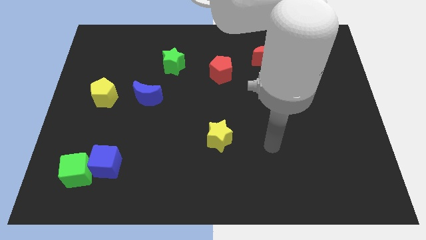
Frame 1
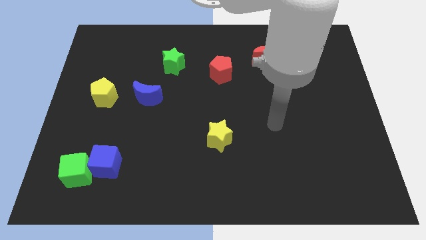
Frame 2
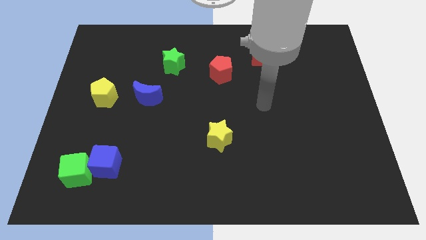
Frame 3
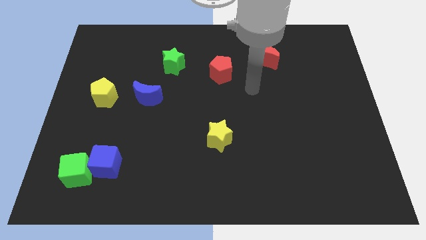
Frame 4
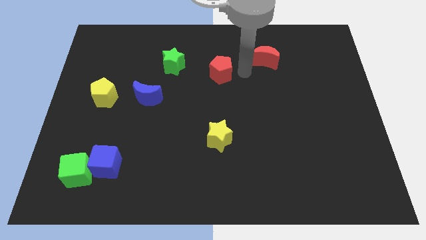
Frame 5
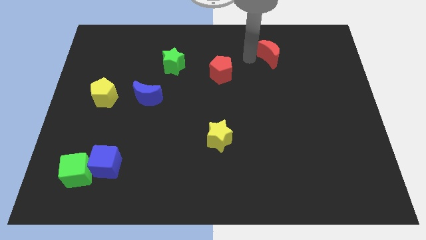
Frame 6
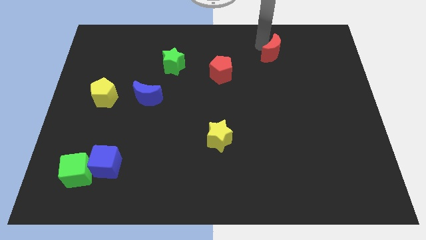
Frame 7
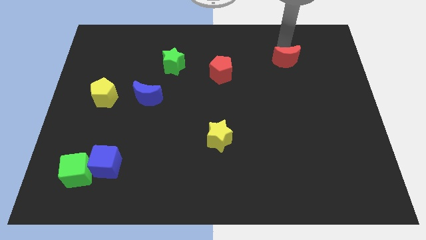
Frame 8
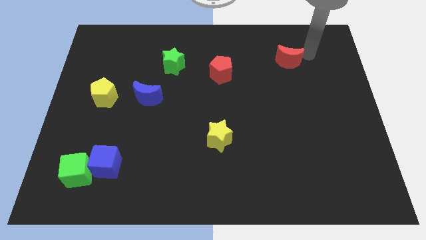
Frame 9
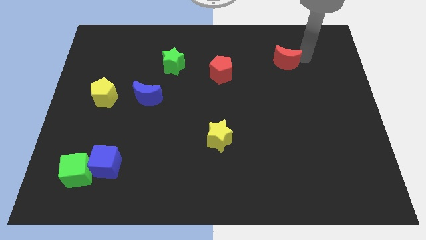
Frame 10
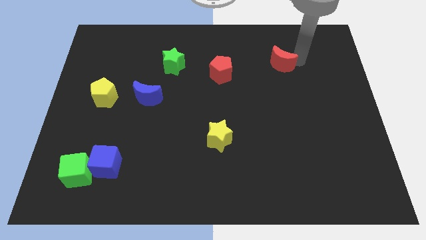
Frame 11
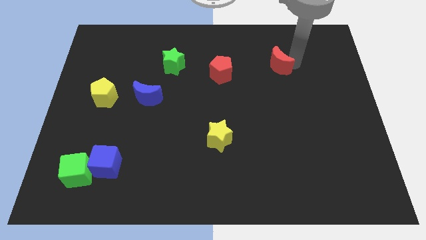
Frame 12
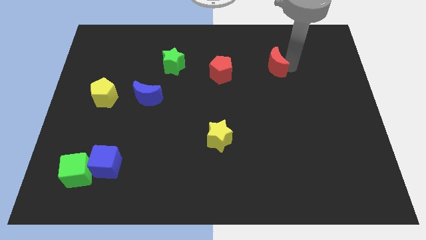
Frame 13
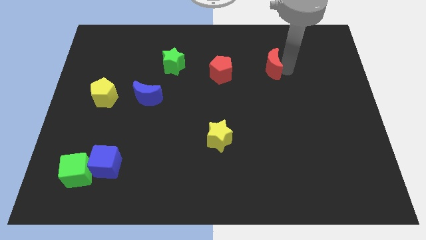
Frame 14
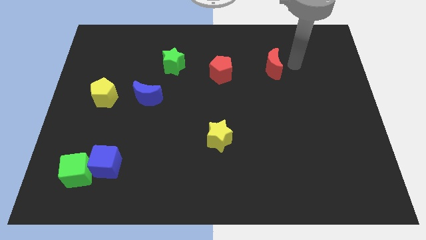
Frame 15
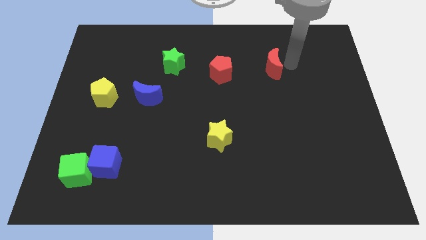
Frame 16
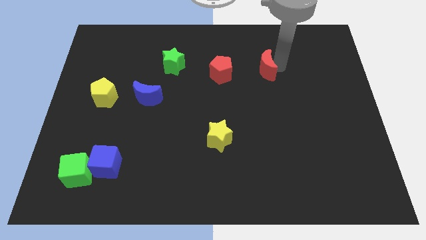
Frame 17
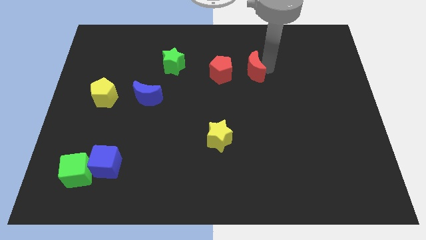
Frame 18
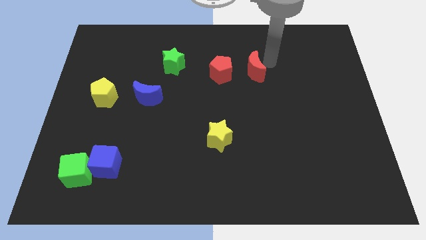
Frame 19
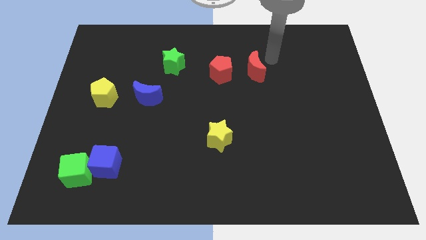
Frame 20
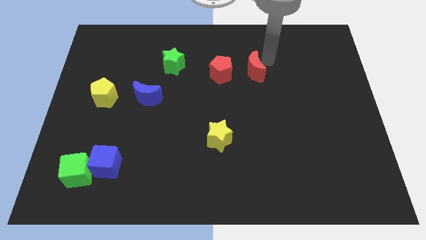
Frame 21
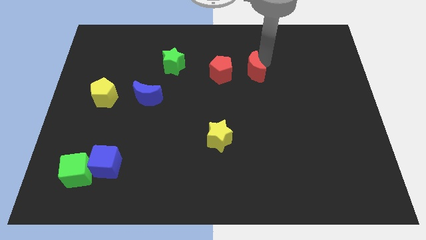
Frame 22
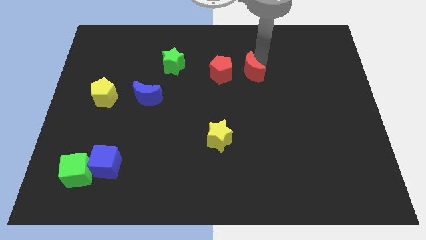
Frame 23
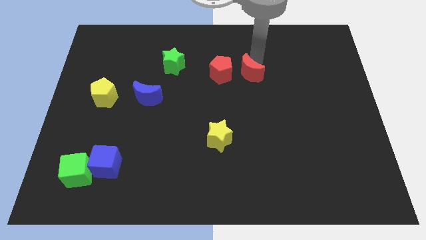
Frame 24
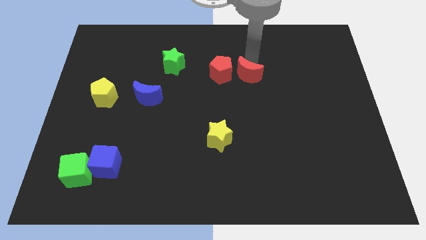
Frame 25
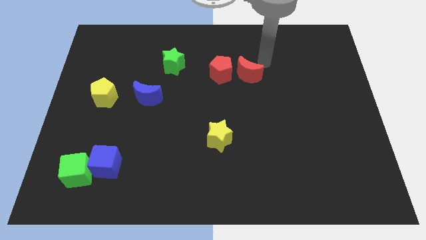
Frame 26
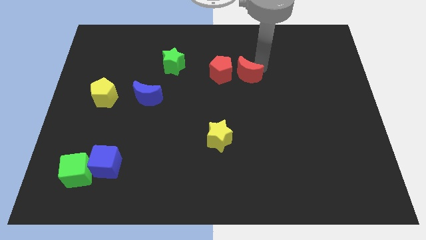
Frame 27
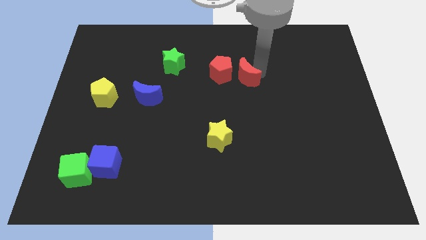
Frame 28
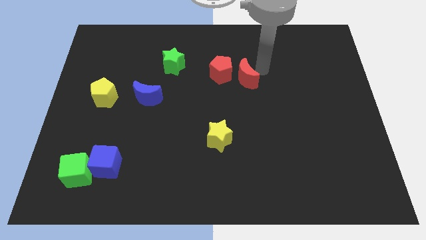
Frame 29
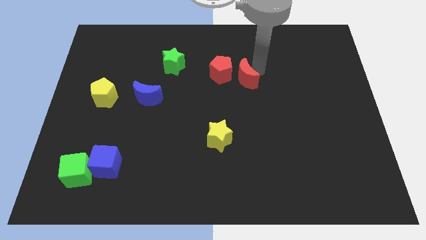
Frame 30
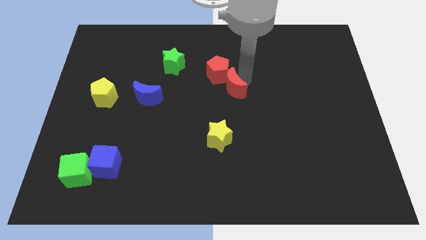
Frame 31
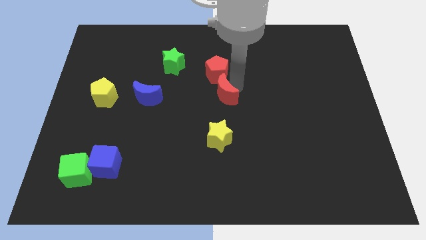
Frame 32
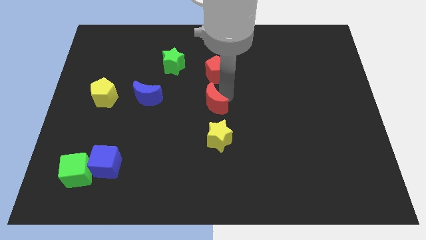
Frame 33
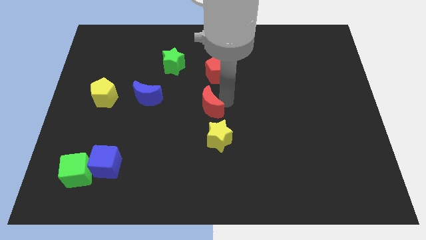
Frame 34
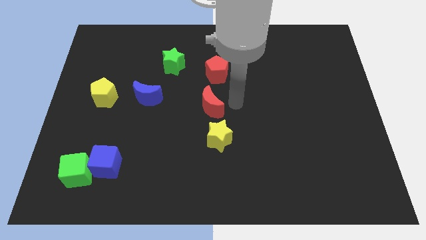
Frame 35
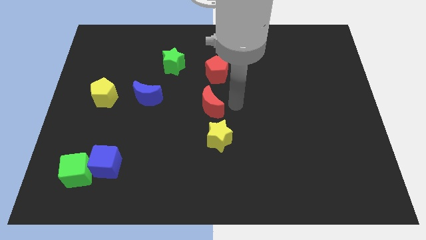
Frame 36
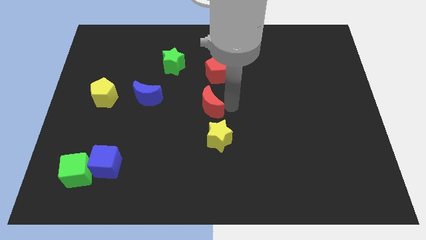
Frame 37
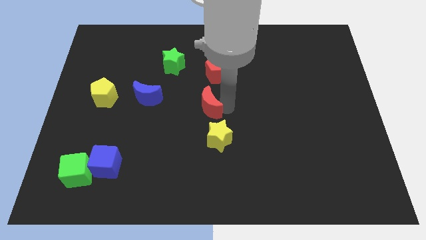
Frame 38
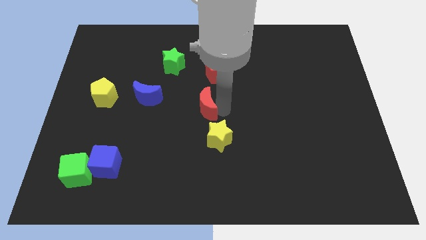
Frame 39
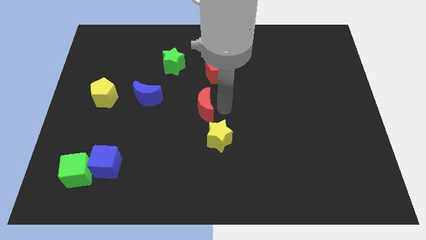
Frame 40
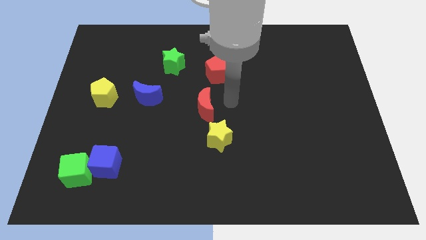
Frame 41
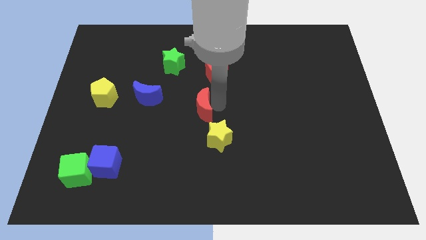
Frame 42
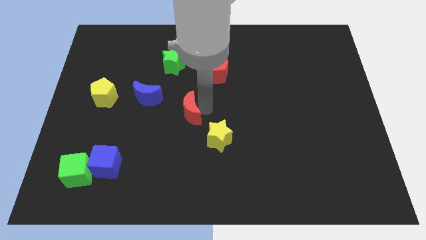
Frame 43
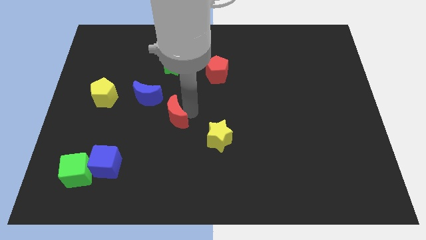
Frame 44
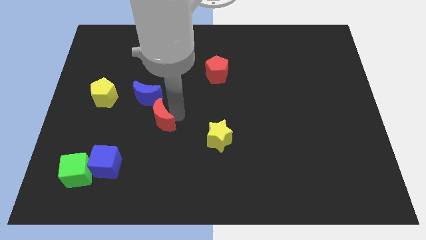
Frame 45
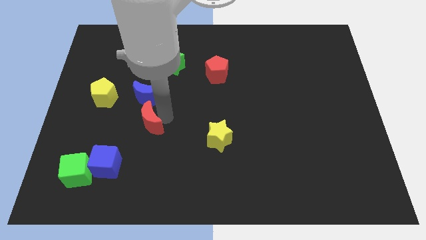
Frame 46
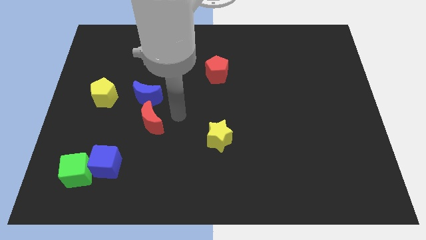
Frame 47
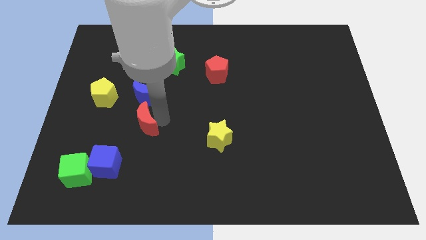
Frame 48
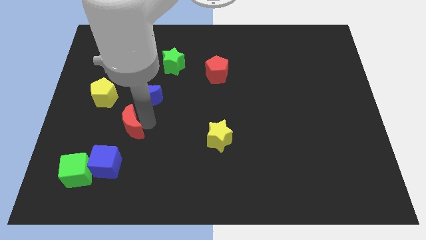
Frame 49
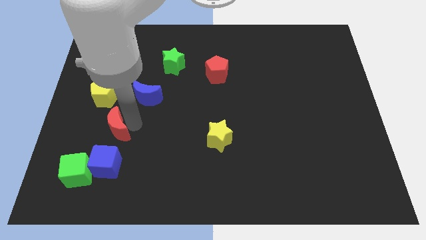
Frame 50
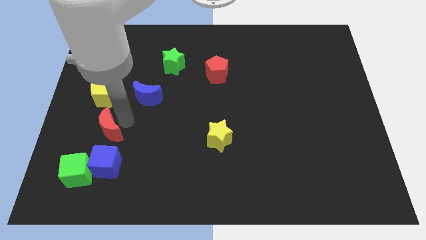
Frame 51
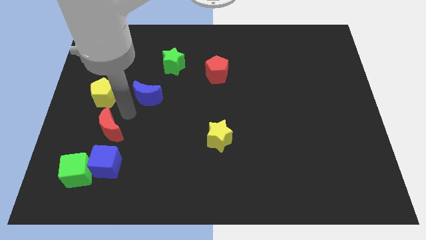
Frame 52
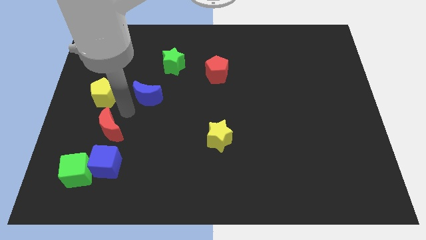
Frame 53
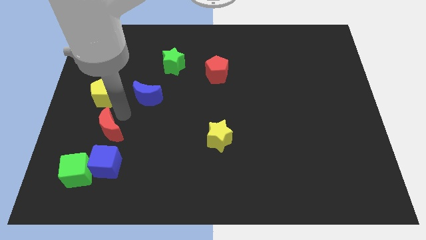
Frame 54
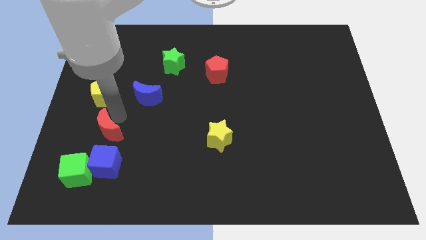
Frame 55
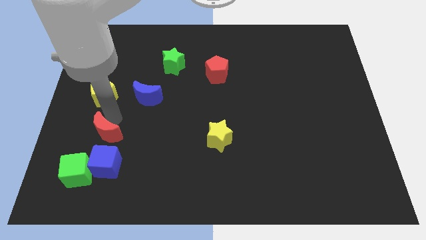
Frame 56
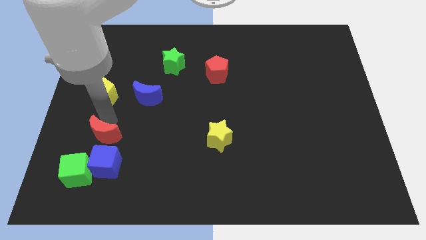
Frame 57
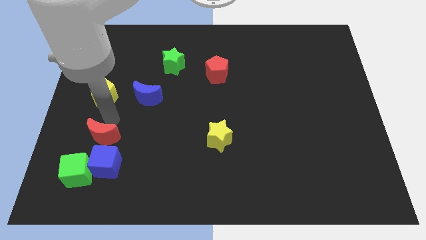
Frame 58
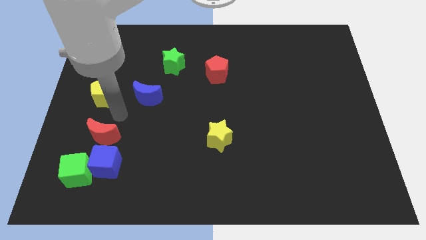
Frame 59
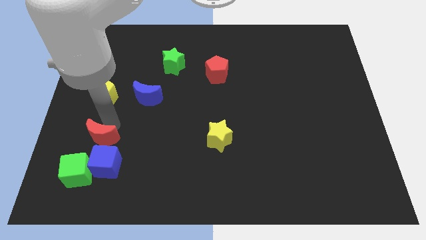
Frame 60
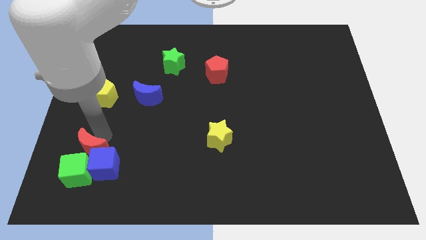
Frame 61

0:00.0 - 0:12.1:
put the red moon close to the green cube
